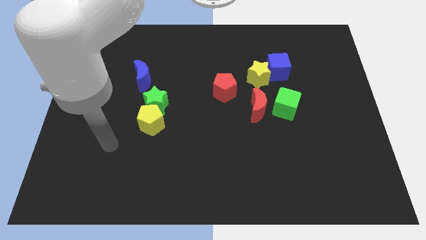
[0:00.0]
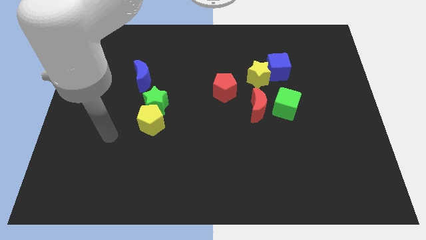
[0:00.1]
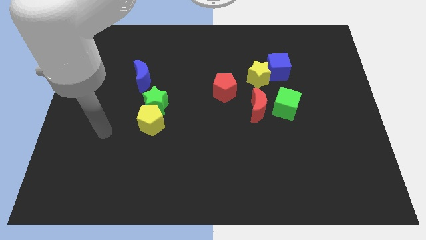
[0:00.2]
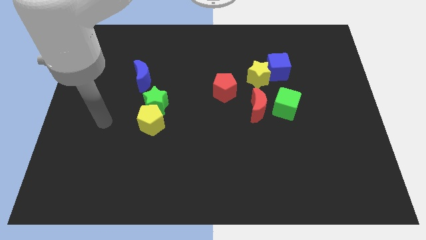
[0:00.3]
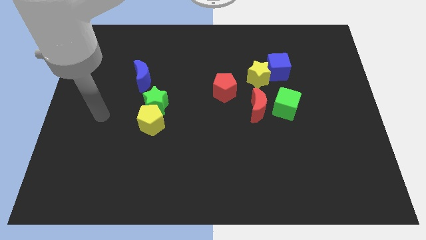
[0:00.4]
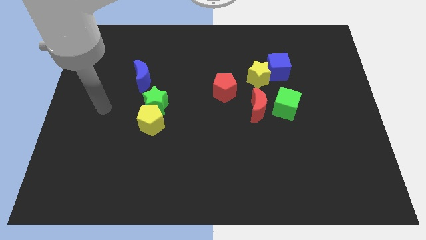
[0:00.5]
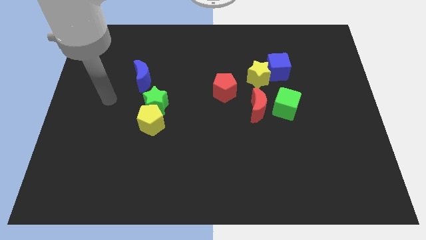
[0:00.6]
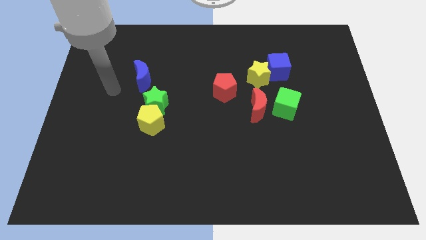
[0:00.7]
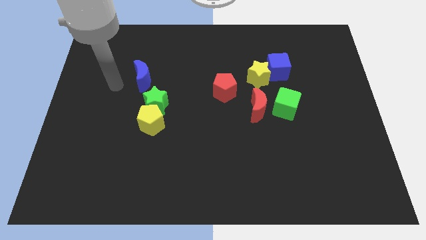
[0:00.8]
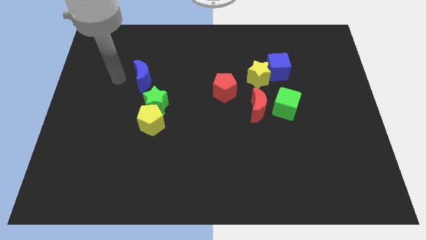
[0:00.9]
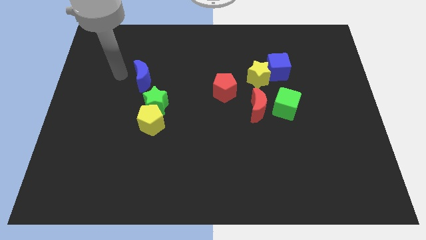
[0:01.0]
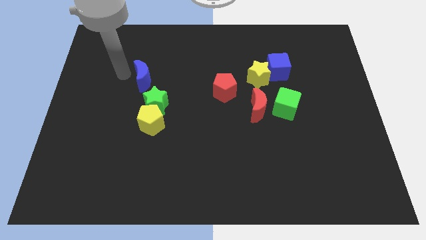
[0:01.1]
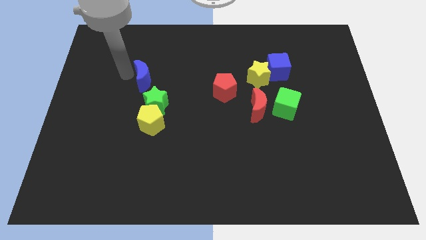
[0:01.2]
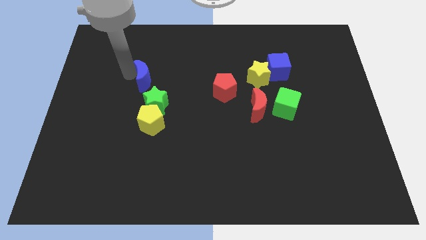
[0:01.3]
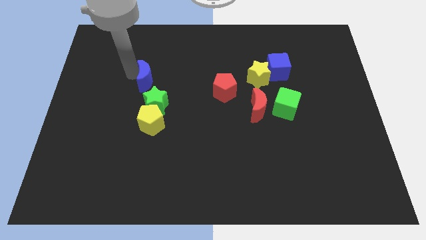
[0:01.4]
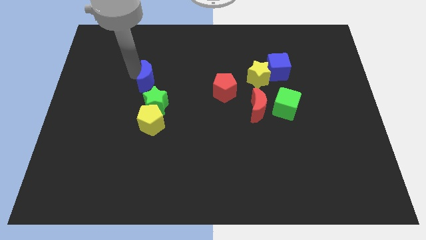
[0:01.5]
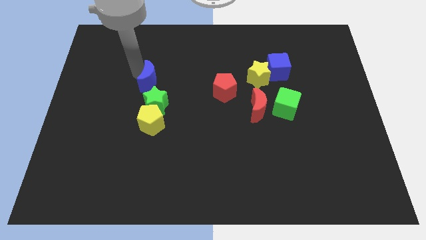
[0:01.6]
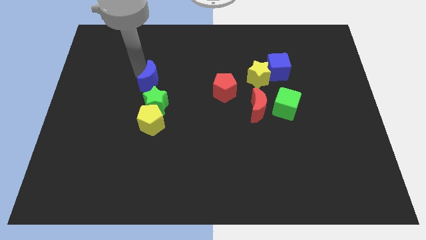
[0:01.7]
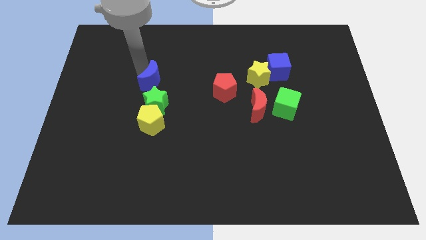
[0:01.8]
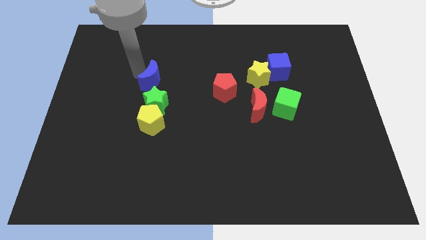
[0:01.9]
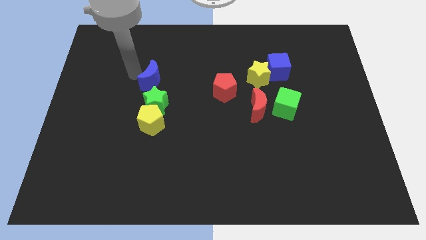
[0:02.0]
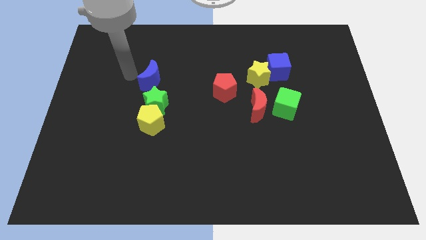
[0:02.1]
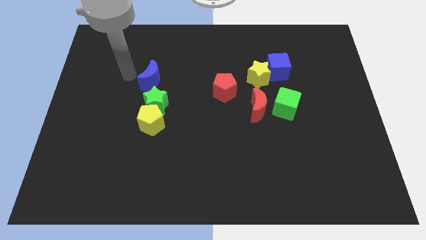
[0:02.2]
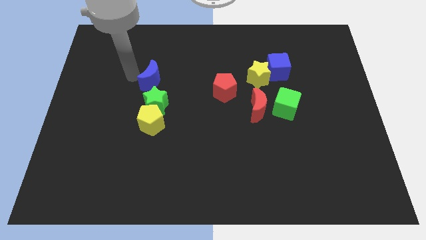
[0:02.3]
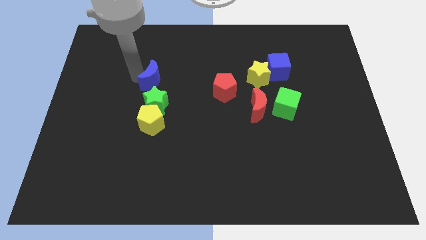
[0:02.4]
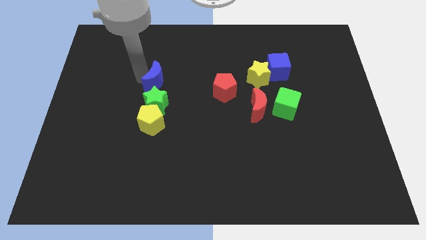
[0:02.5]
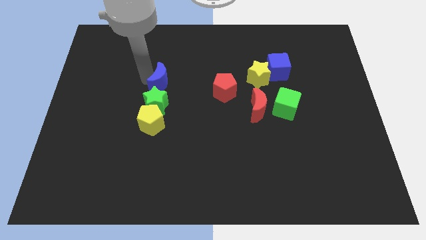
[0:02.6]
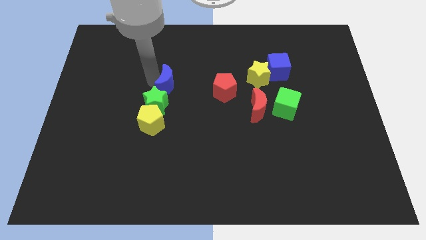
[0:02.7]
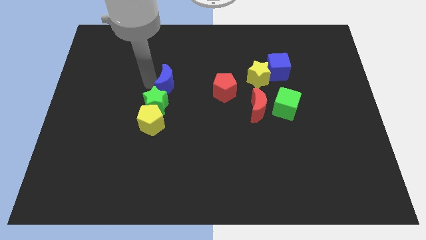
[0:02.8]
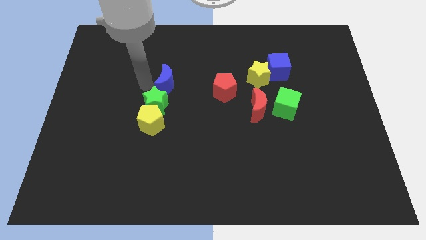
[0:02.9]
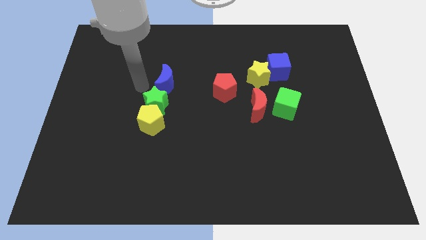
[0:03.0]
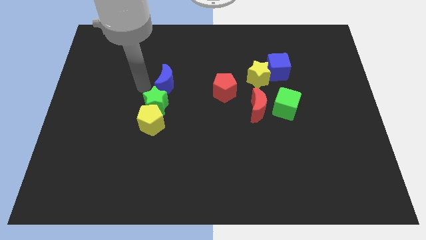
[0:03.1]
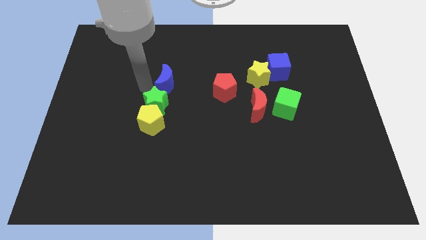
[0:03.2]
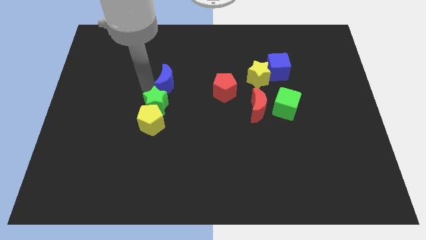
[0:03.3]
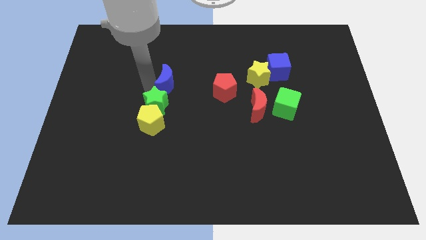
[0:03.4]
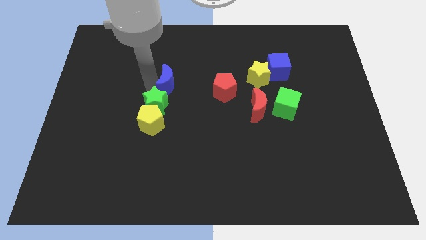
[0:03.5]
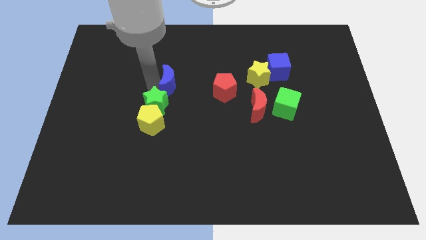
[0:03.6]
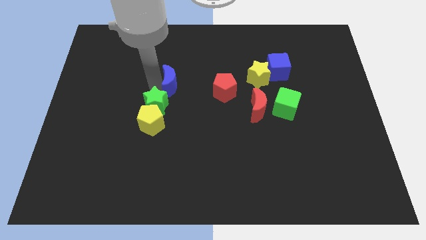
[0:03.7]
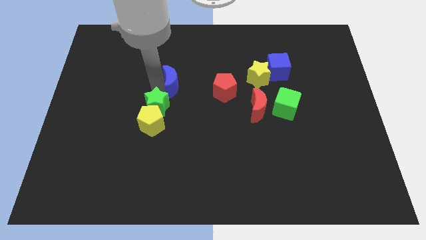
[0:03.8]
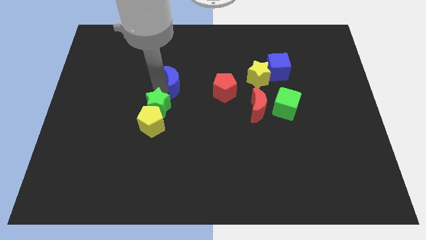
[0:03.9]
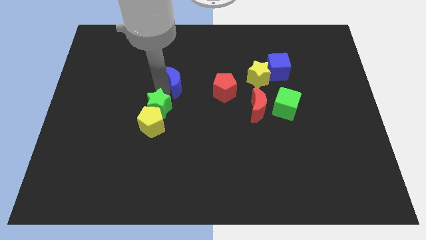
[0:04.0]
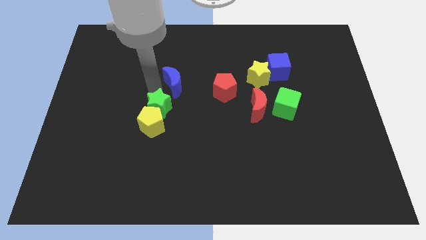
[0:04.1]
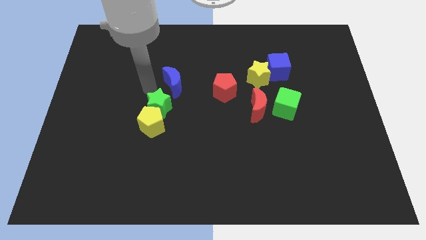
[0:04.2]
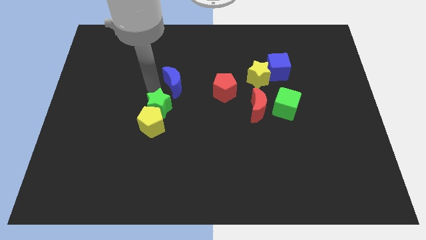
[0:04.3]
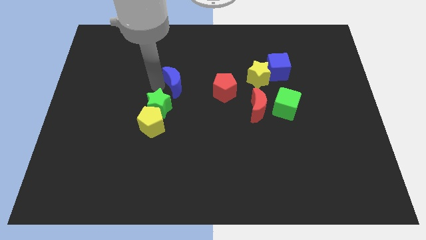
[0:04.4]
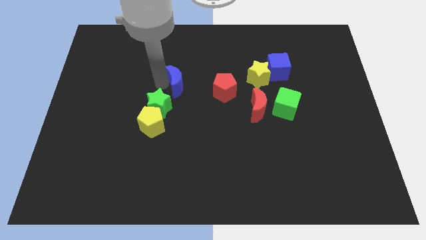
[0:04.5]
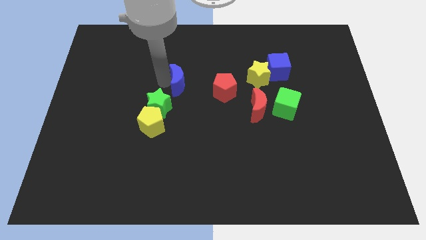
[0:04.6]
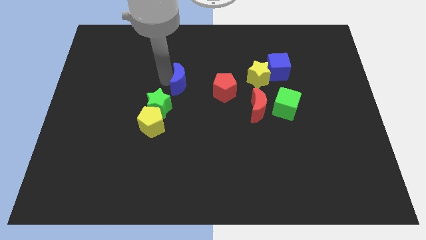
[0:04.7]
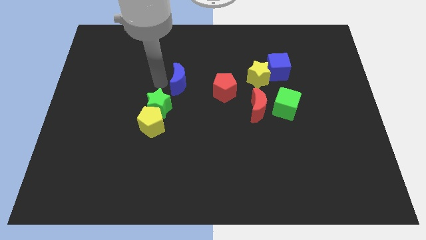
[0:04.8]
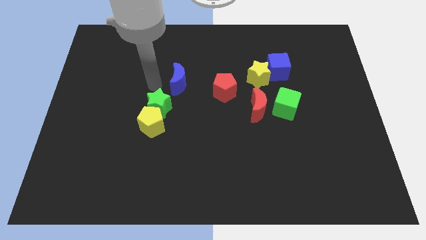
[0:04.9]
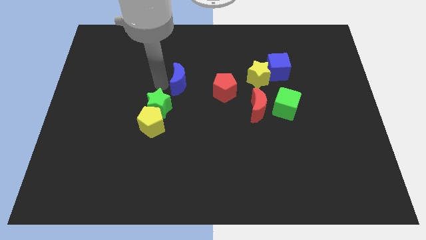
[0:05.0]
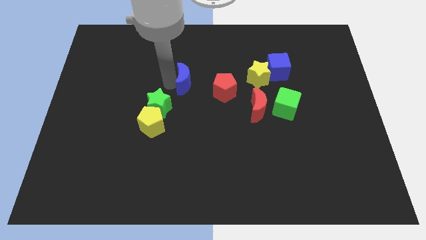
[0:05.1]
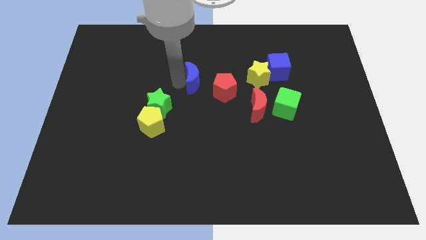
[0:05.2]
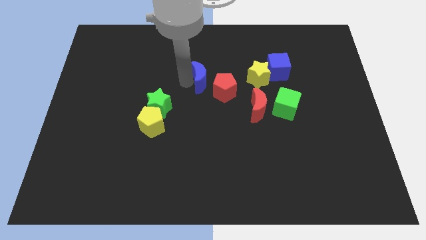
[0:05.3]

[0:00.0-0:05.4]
move the blue moon to the left of the yellow star

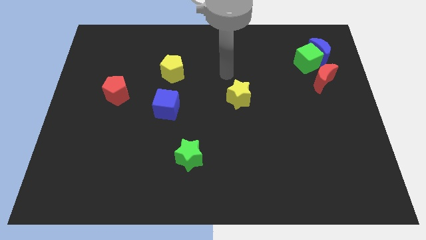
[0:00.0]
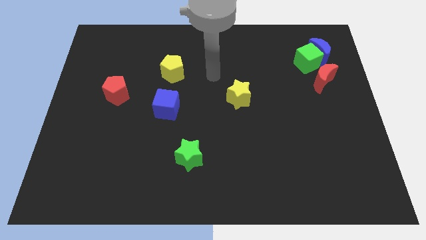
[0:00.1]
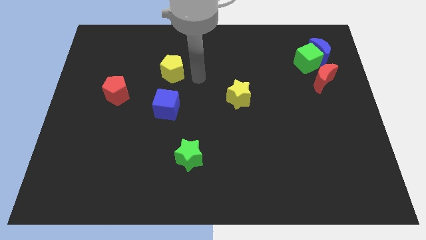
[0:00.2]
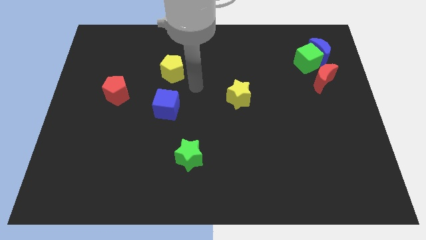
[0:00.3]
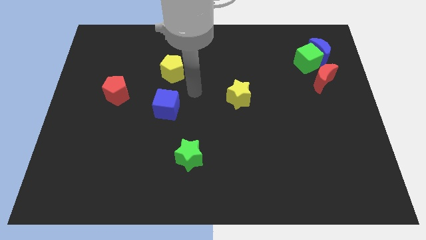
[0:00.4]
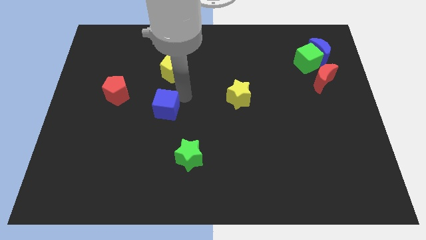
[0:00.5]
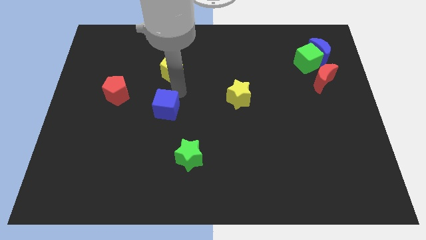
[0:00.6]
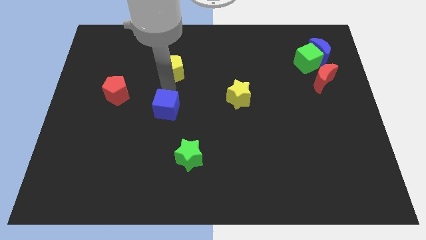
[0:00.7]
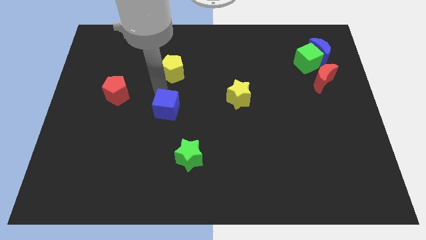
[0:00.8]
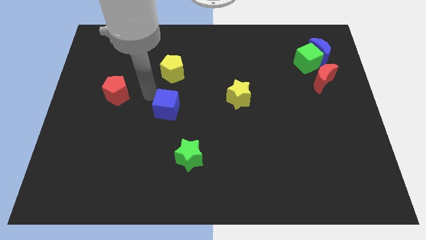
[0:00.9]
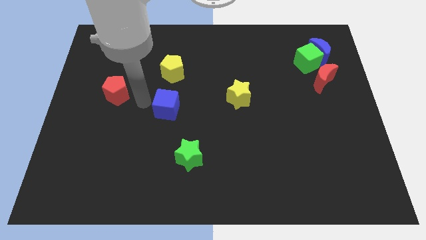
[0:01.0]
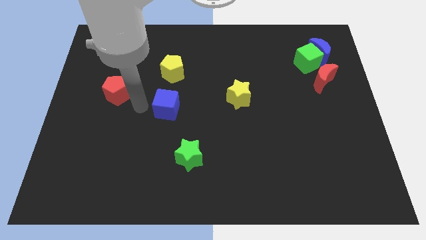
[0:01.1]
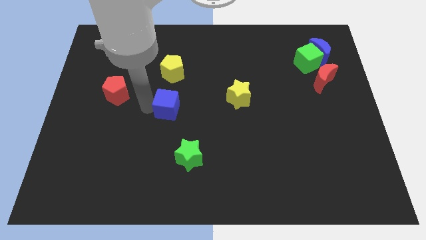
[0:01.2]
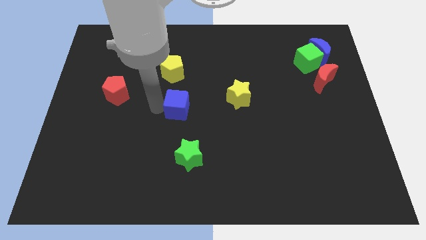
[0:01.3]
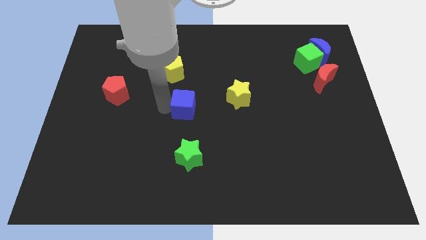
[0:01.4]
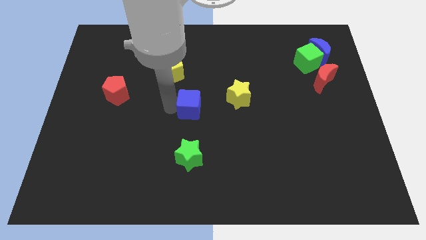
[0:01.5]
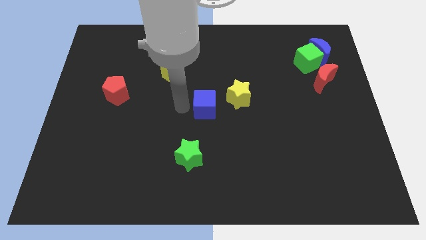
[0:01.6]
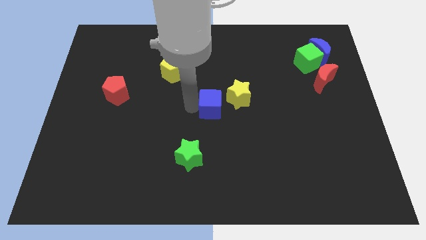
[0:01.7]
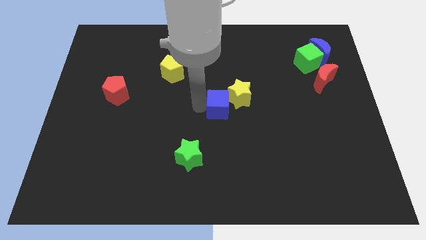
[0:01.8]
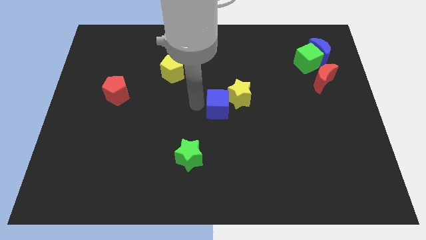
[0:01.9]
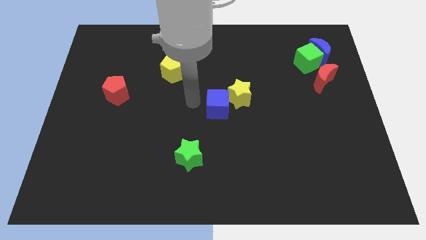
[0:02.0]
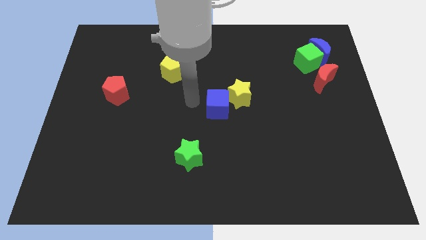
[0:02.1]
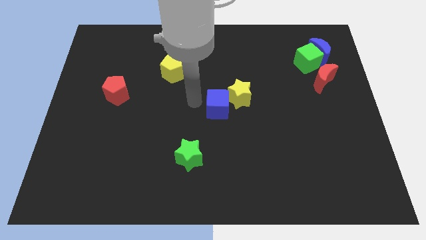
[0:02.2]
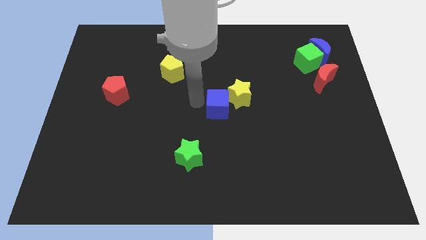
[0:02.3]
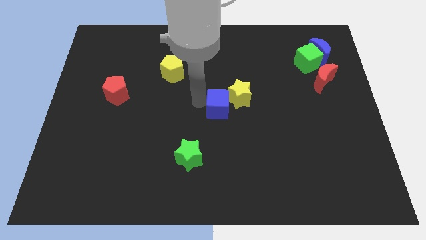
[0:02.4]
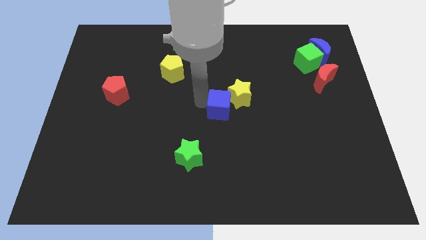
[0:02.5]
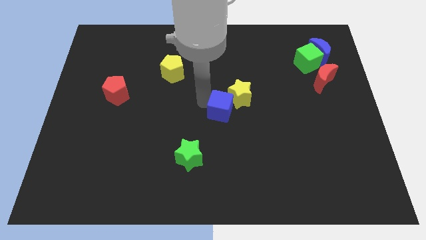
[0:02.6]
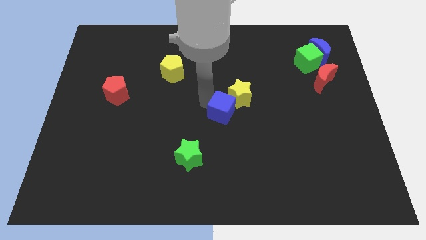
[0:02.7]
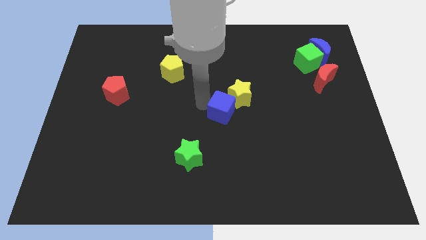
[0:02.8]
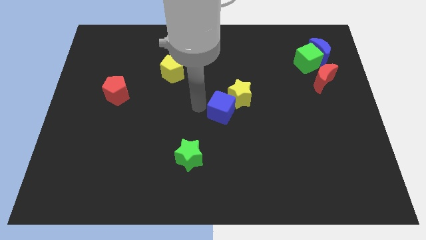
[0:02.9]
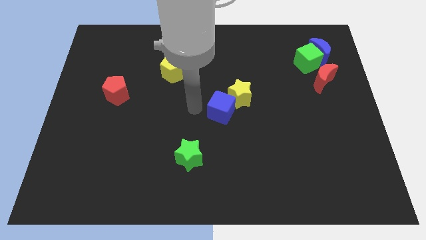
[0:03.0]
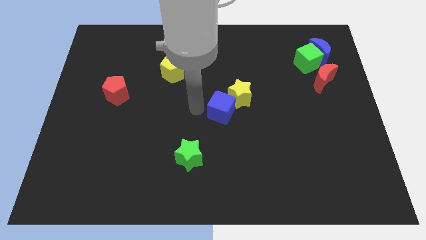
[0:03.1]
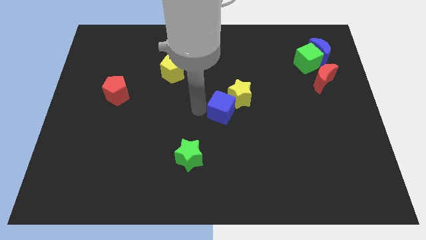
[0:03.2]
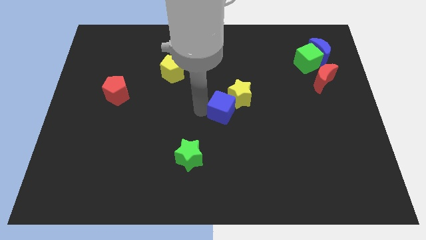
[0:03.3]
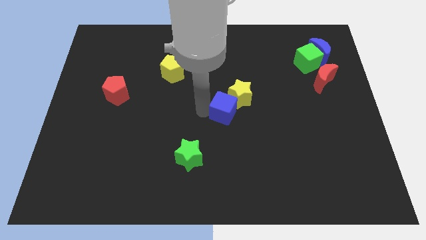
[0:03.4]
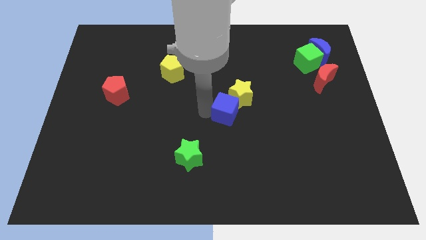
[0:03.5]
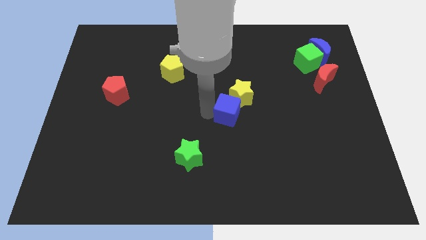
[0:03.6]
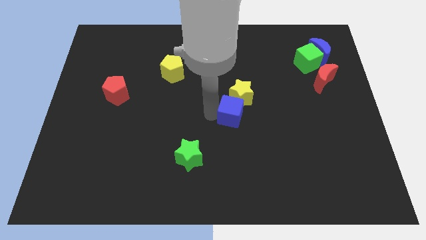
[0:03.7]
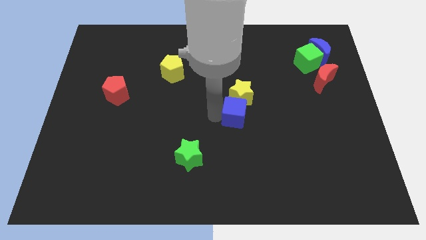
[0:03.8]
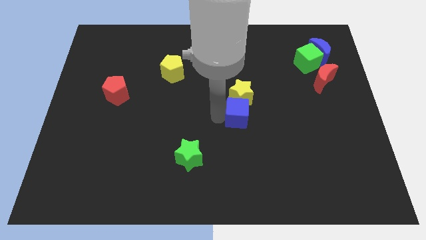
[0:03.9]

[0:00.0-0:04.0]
put the blue cube to the bottom right side of the yellow star
